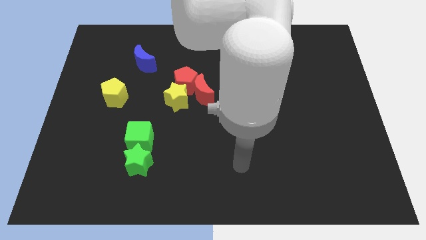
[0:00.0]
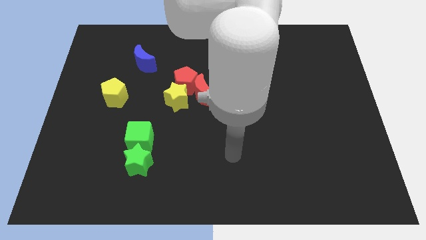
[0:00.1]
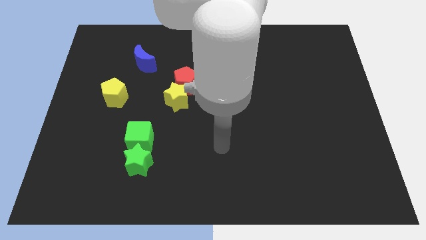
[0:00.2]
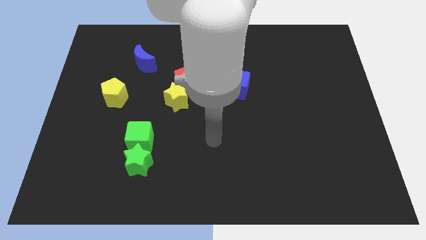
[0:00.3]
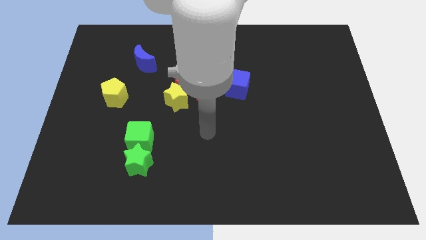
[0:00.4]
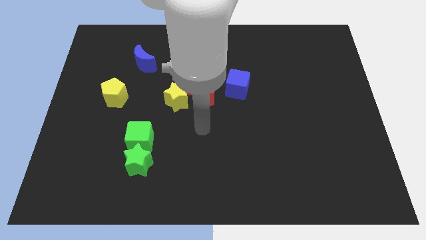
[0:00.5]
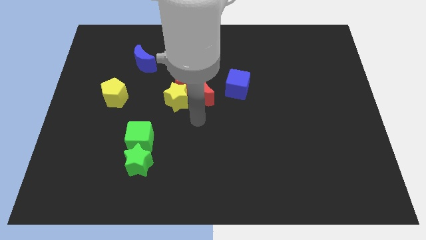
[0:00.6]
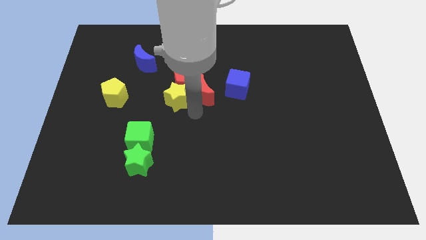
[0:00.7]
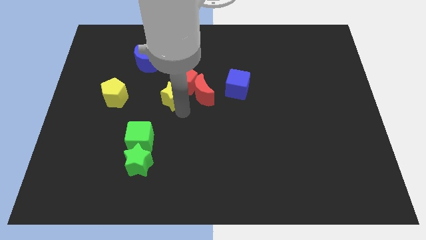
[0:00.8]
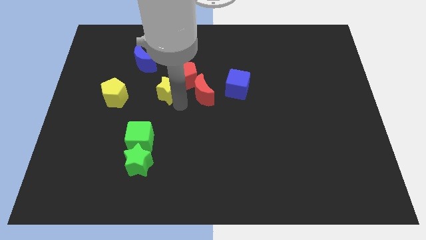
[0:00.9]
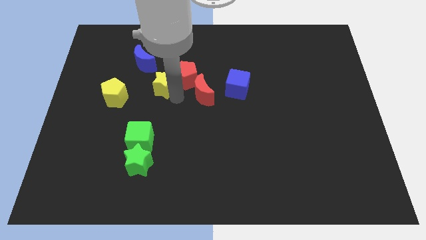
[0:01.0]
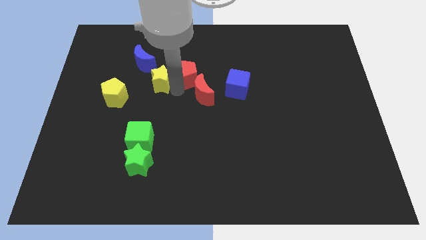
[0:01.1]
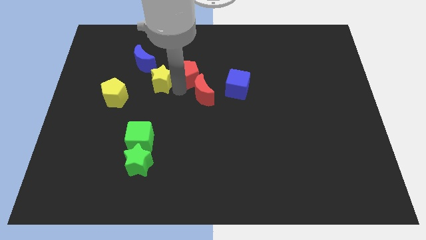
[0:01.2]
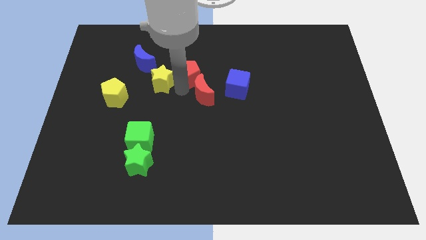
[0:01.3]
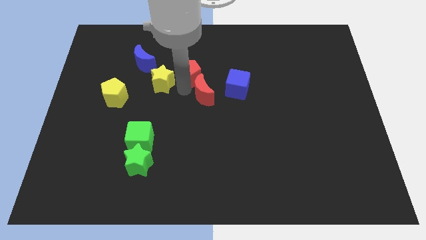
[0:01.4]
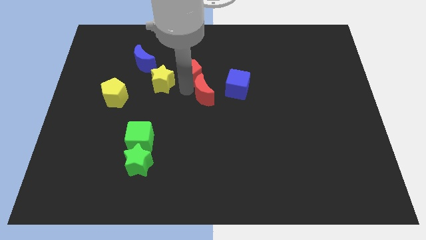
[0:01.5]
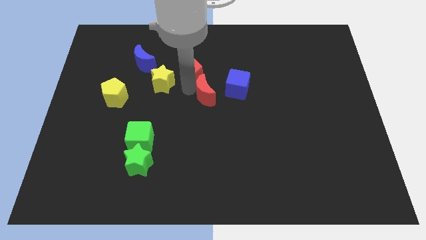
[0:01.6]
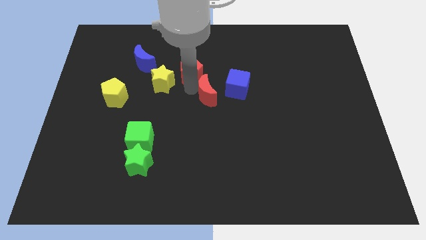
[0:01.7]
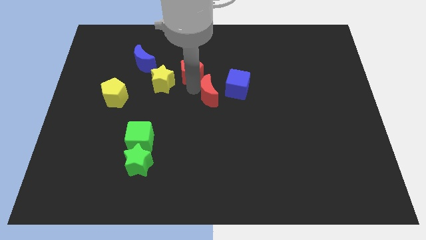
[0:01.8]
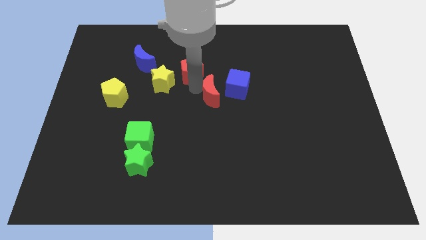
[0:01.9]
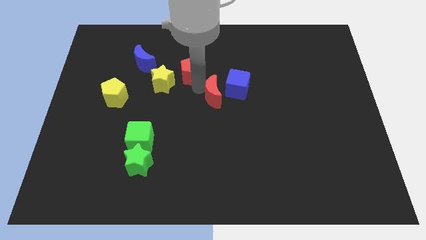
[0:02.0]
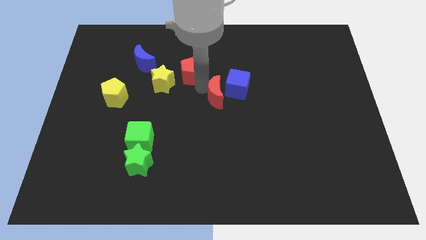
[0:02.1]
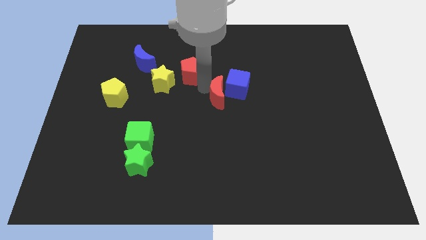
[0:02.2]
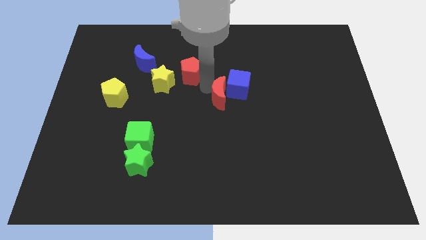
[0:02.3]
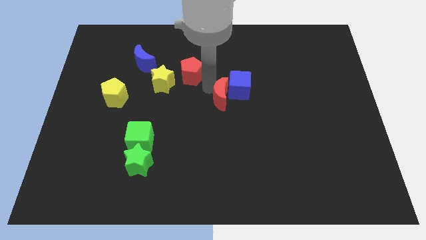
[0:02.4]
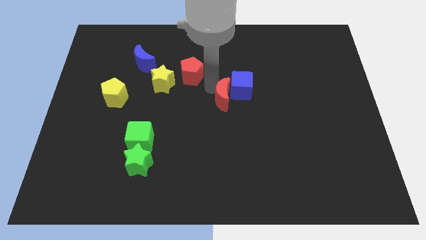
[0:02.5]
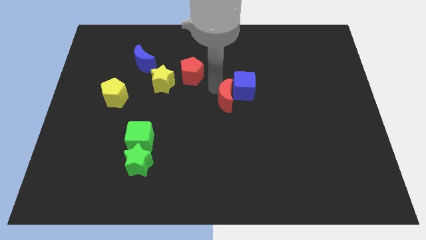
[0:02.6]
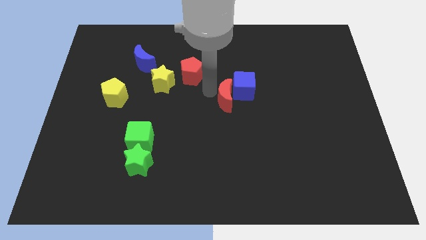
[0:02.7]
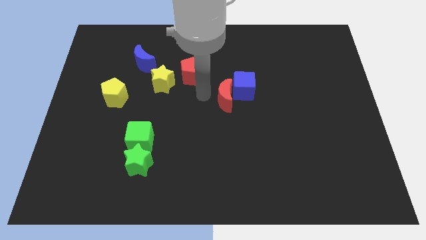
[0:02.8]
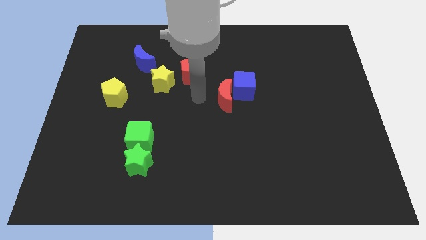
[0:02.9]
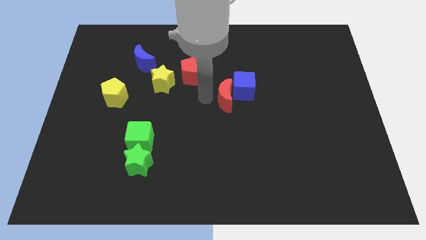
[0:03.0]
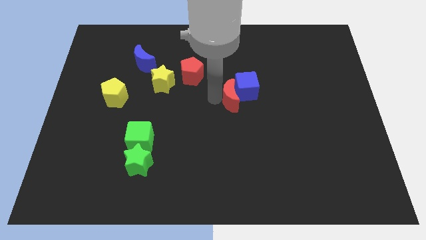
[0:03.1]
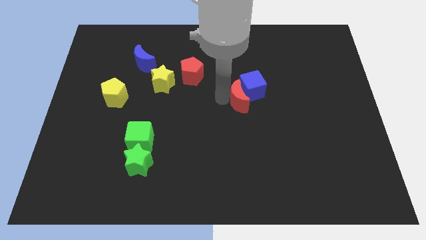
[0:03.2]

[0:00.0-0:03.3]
push the red moon somewhat right

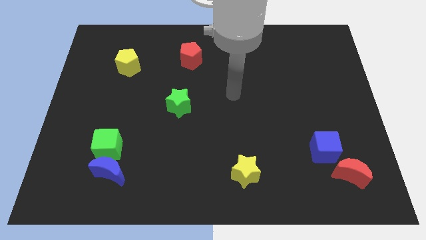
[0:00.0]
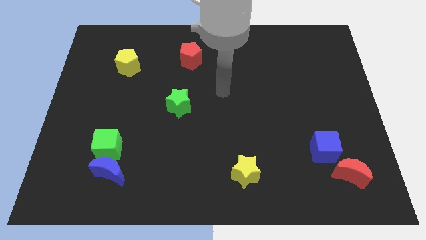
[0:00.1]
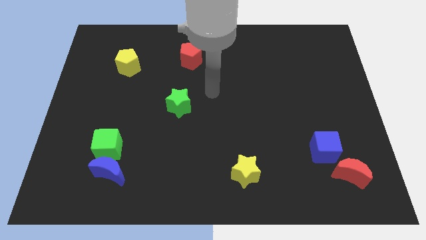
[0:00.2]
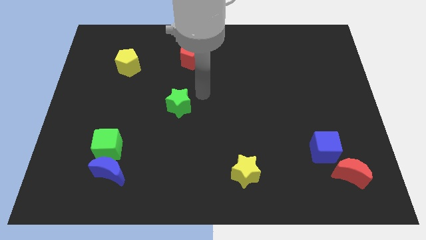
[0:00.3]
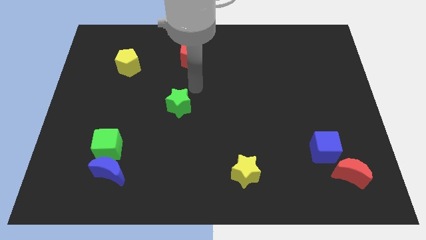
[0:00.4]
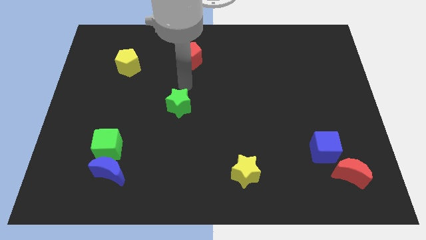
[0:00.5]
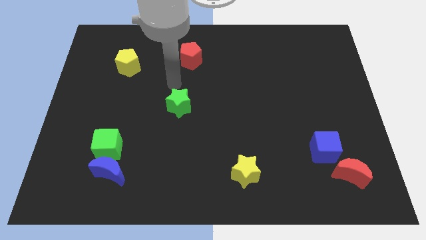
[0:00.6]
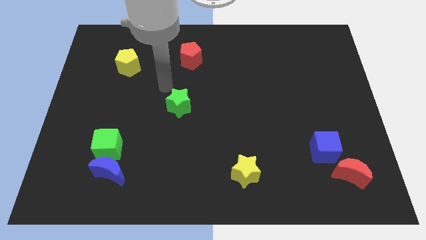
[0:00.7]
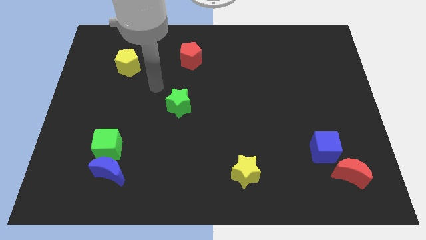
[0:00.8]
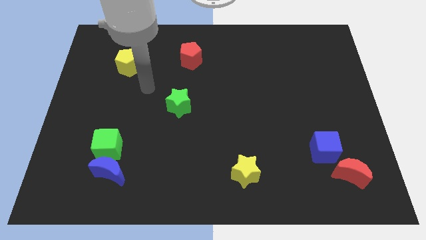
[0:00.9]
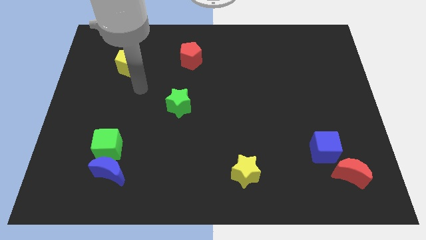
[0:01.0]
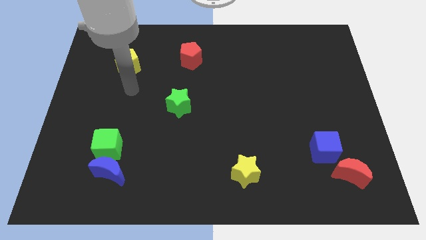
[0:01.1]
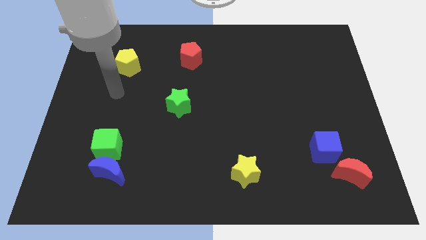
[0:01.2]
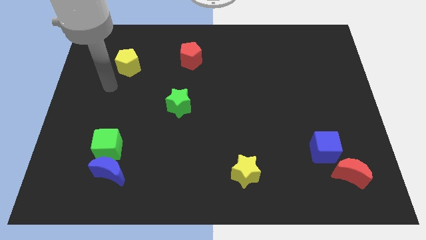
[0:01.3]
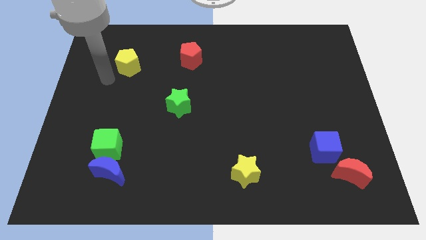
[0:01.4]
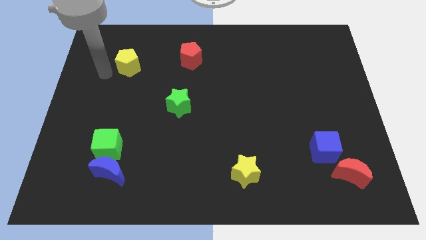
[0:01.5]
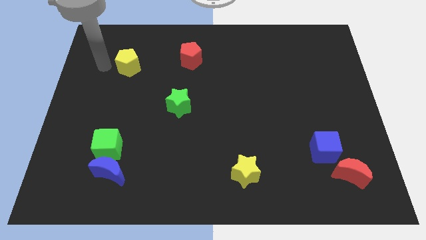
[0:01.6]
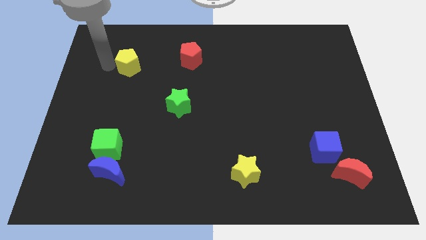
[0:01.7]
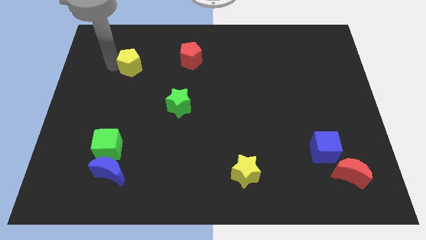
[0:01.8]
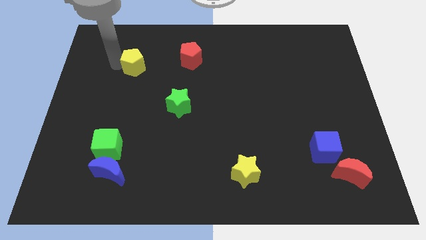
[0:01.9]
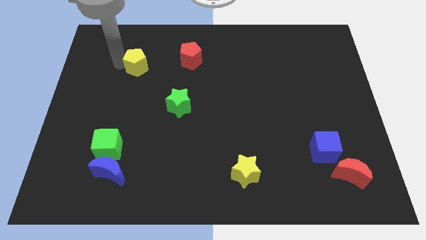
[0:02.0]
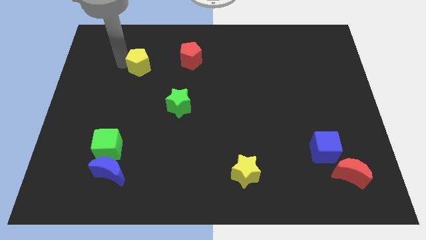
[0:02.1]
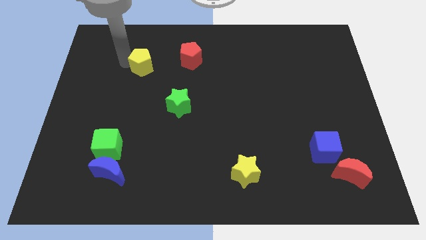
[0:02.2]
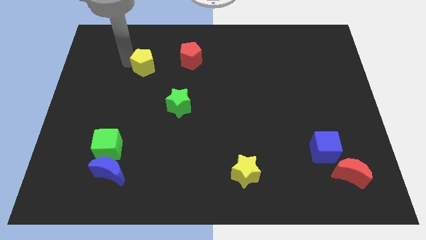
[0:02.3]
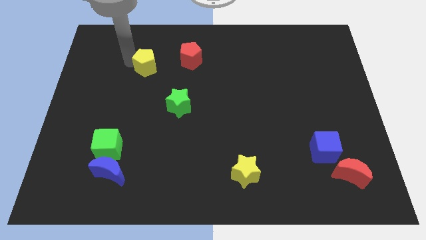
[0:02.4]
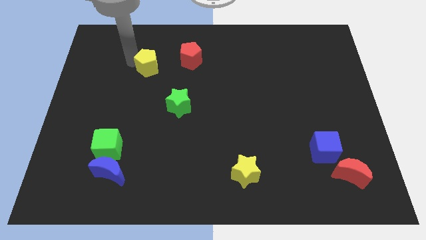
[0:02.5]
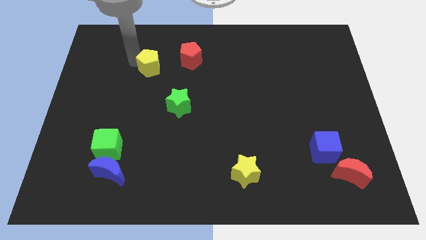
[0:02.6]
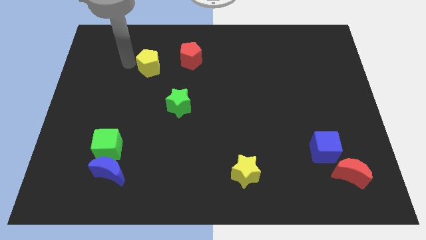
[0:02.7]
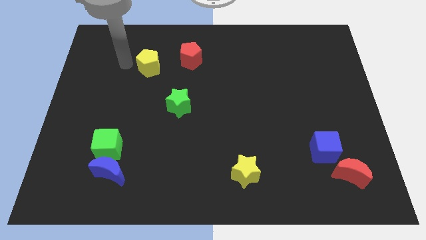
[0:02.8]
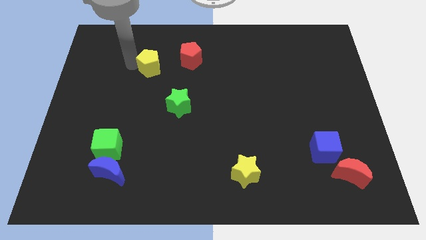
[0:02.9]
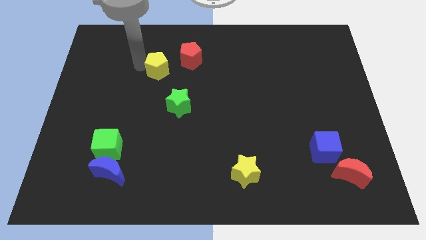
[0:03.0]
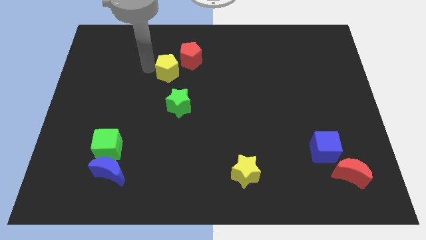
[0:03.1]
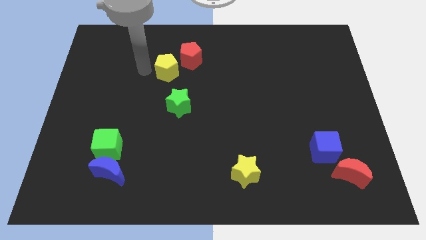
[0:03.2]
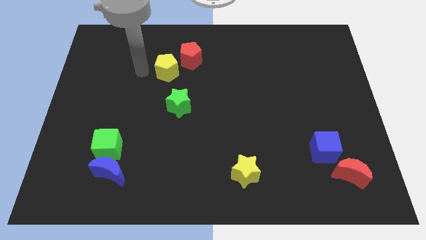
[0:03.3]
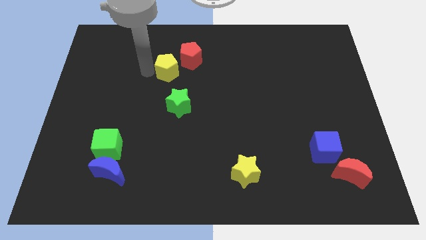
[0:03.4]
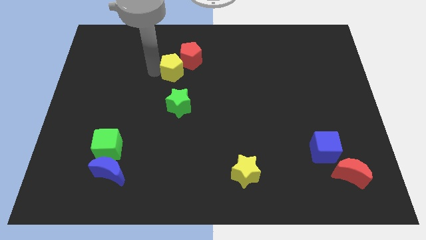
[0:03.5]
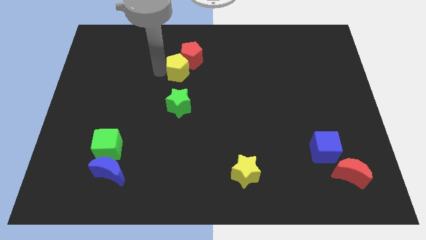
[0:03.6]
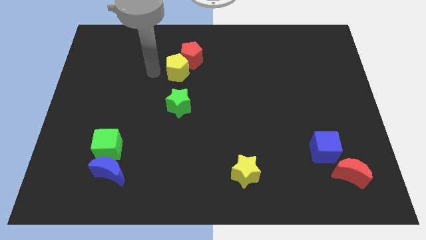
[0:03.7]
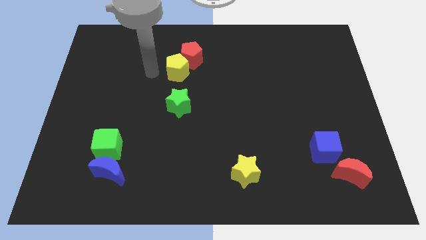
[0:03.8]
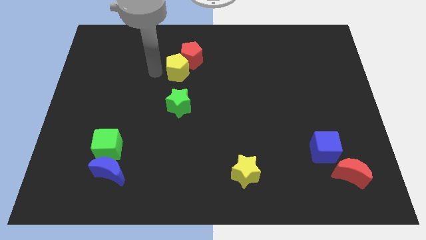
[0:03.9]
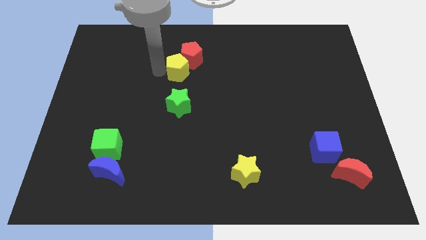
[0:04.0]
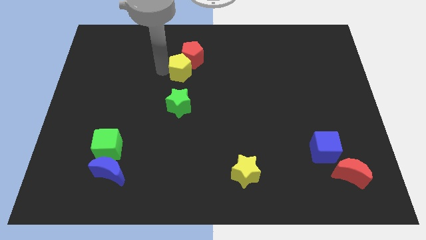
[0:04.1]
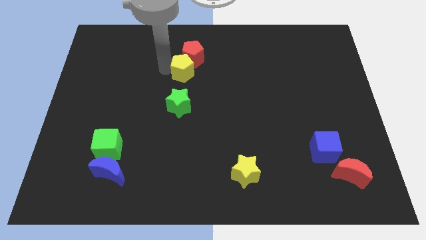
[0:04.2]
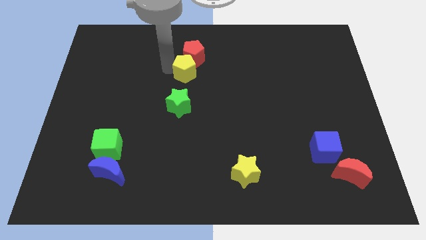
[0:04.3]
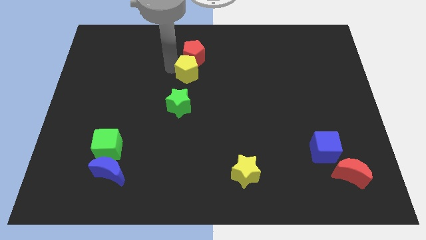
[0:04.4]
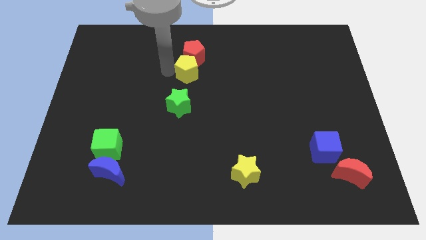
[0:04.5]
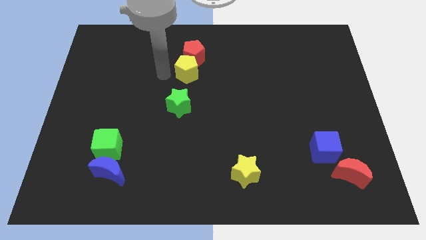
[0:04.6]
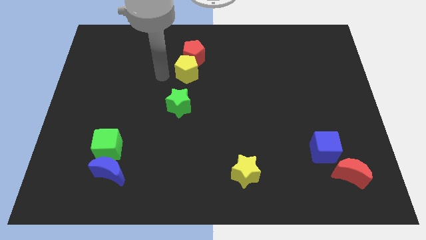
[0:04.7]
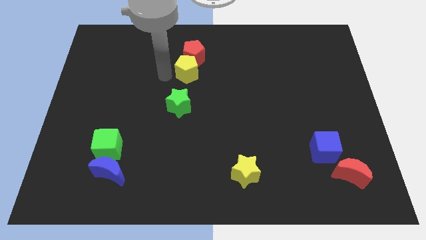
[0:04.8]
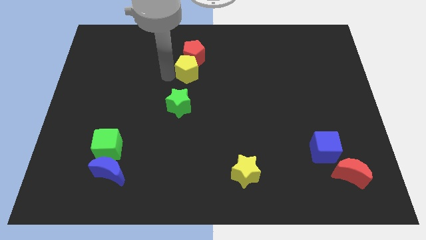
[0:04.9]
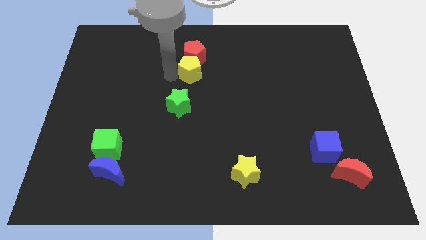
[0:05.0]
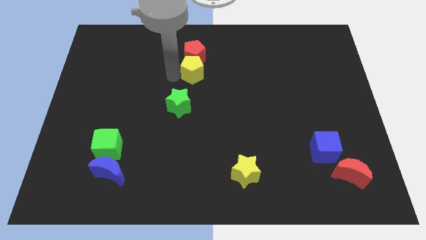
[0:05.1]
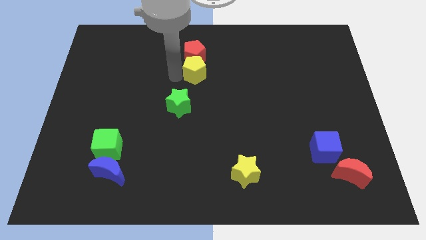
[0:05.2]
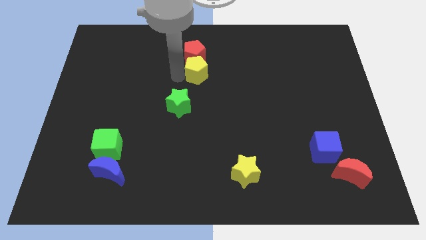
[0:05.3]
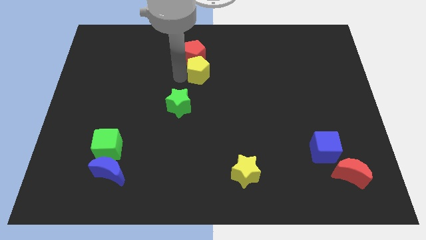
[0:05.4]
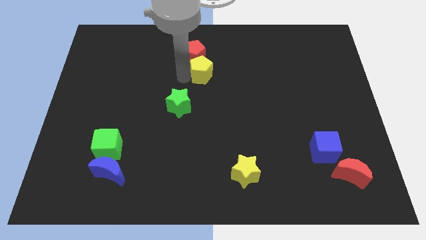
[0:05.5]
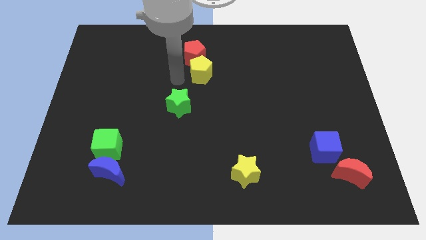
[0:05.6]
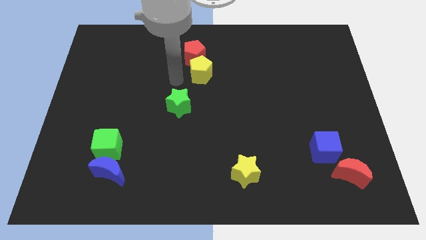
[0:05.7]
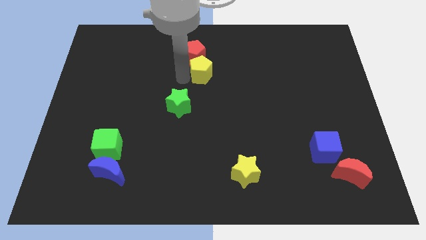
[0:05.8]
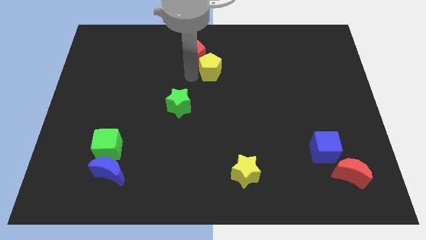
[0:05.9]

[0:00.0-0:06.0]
push the yellow pentagon right
